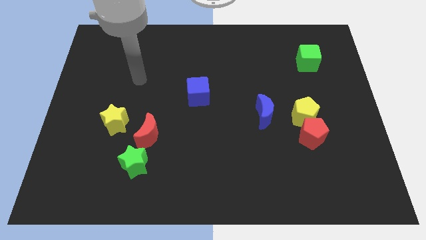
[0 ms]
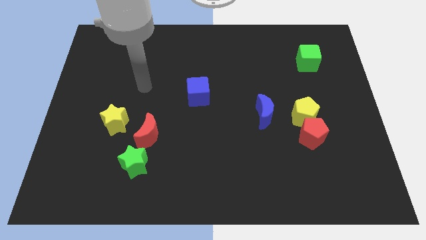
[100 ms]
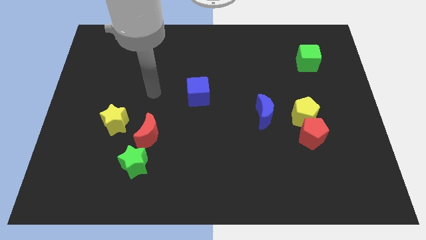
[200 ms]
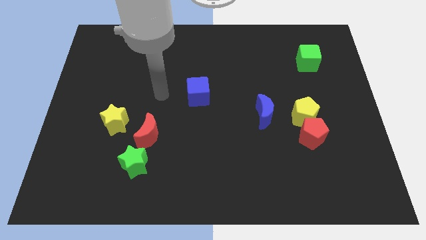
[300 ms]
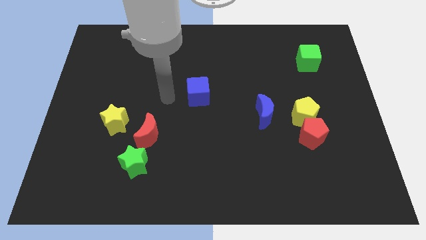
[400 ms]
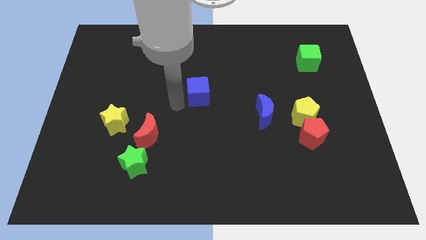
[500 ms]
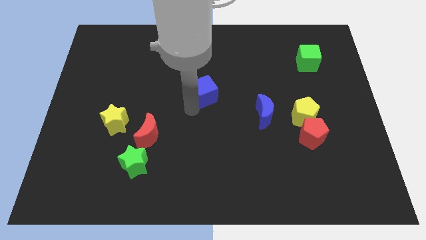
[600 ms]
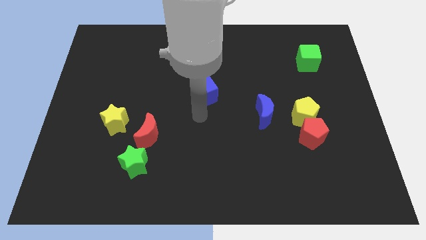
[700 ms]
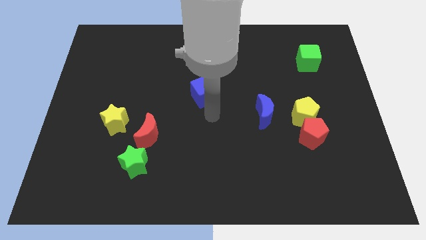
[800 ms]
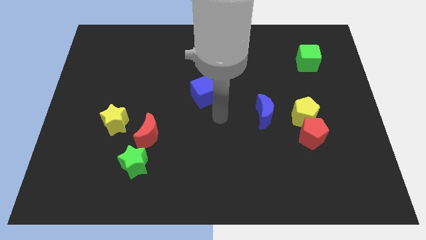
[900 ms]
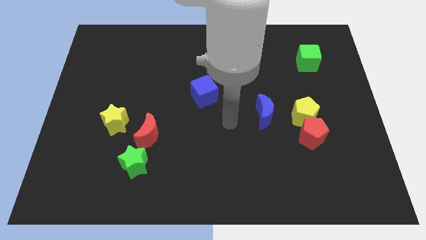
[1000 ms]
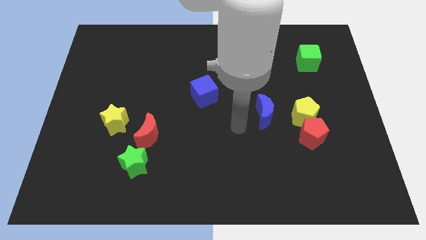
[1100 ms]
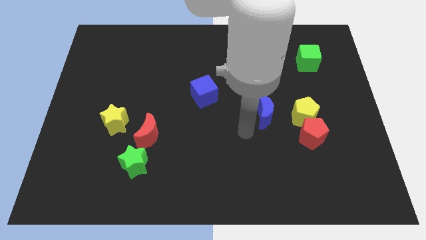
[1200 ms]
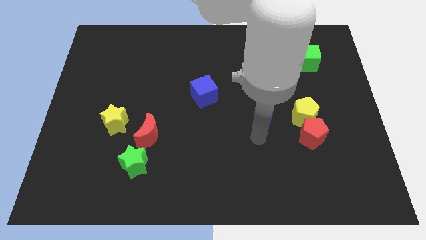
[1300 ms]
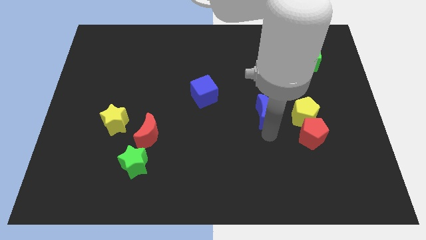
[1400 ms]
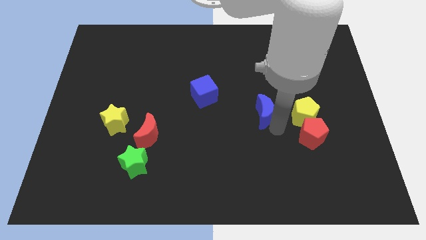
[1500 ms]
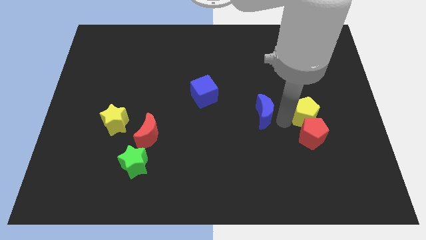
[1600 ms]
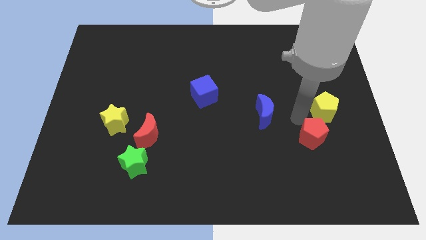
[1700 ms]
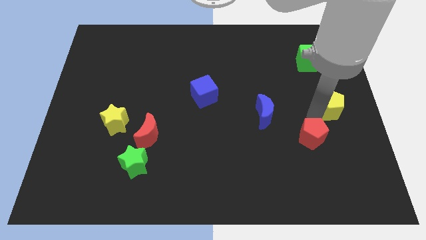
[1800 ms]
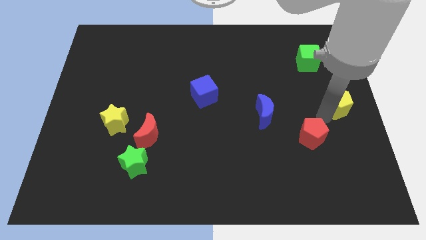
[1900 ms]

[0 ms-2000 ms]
move the red pentagon away from the yellow pentagon

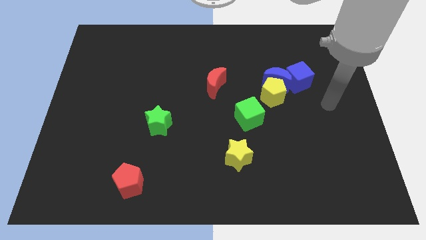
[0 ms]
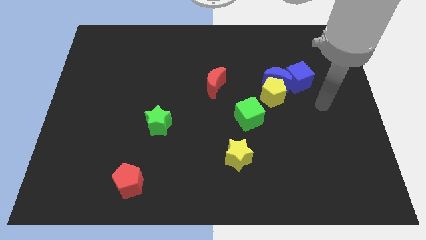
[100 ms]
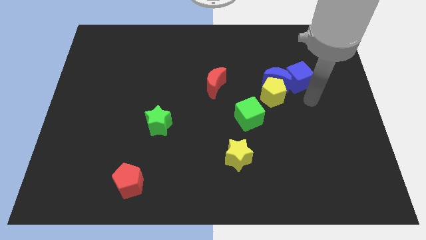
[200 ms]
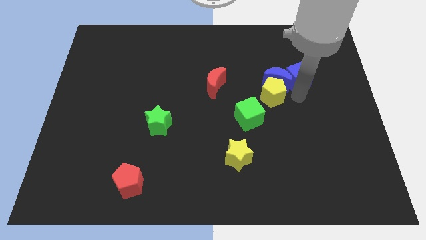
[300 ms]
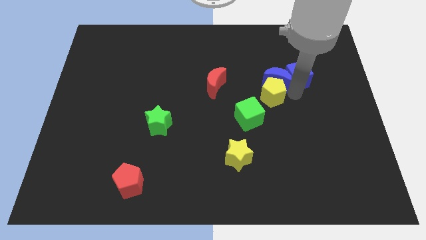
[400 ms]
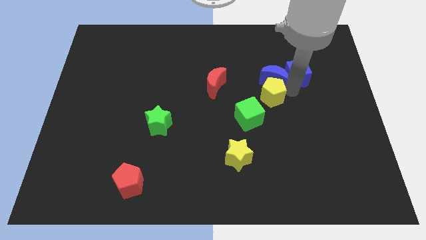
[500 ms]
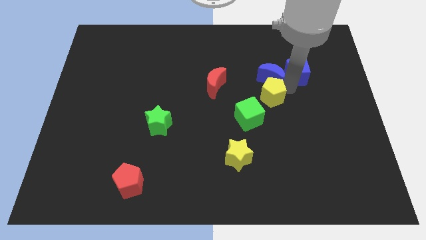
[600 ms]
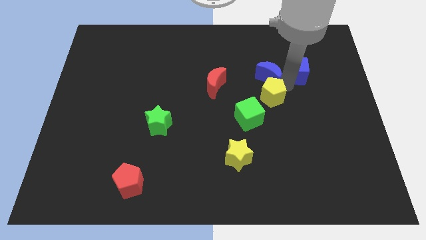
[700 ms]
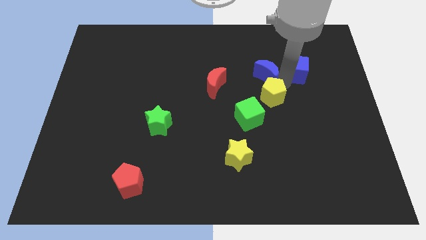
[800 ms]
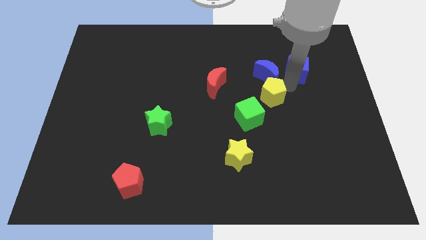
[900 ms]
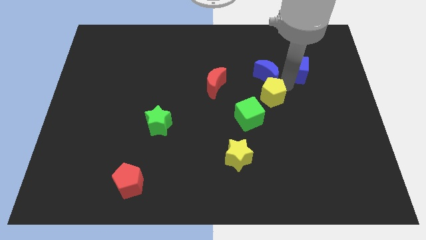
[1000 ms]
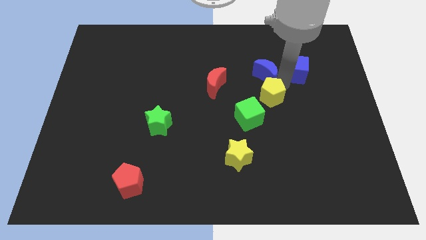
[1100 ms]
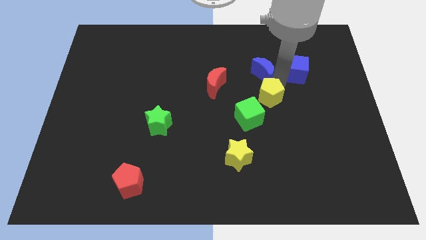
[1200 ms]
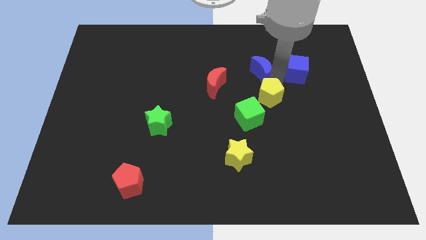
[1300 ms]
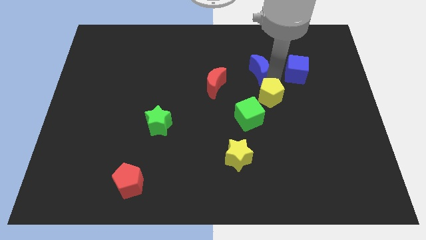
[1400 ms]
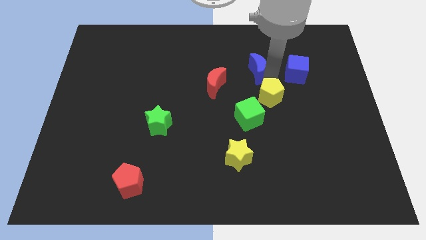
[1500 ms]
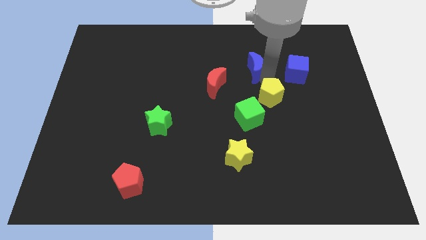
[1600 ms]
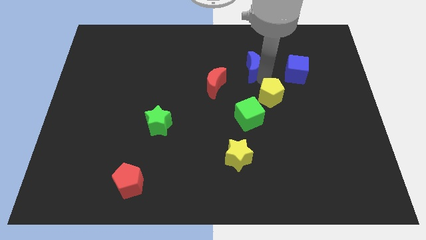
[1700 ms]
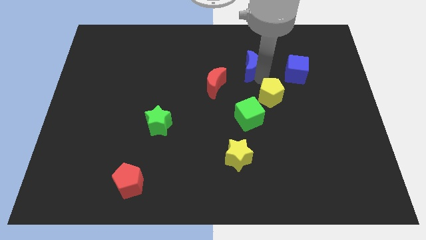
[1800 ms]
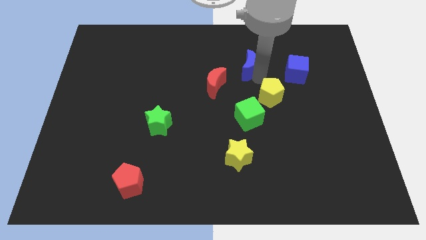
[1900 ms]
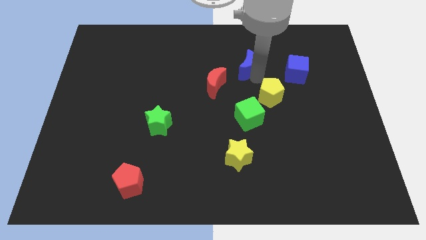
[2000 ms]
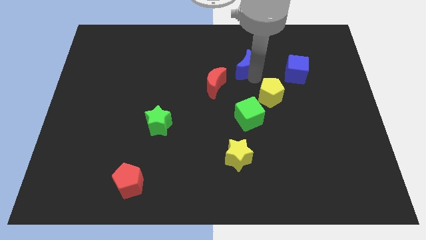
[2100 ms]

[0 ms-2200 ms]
separate the blue moon from the yellow pentagon and blue cube

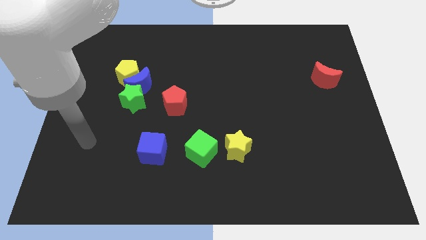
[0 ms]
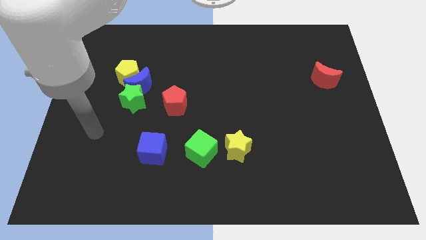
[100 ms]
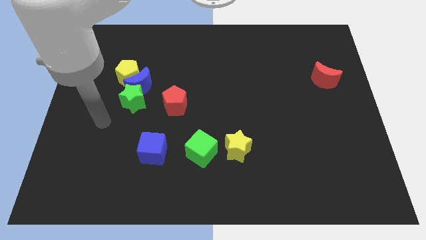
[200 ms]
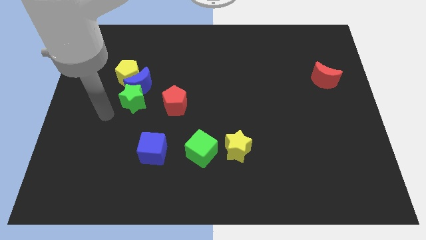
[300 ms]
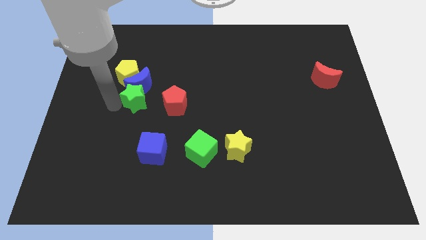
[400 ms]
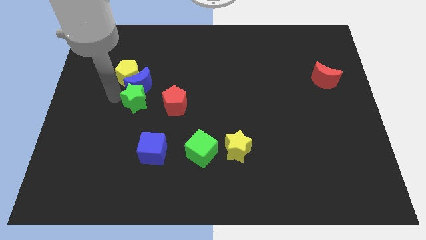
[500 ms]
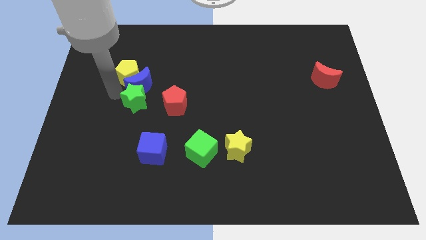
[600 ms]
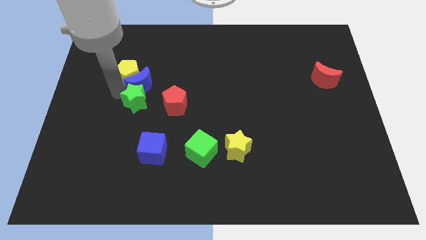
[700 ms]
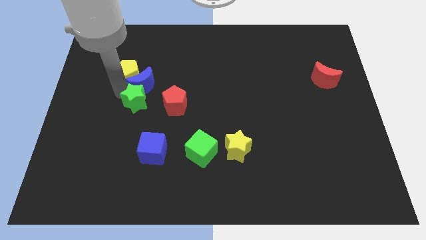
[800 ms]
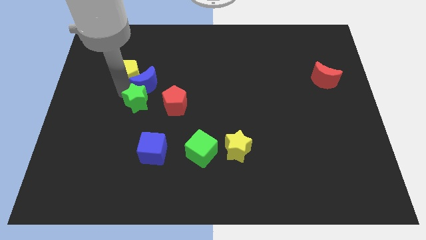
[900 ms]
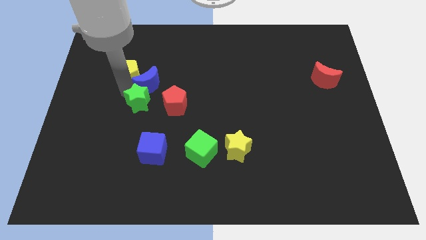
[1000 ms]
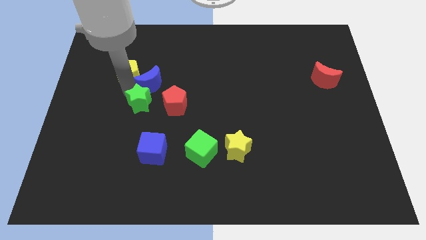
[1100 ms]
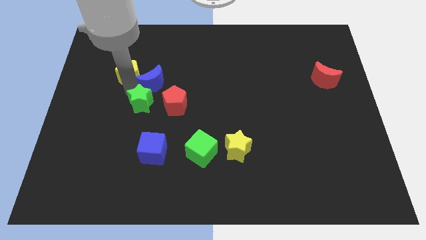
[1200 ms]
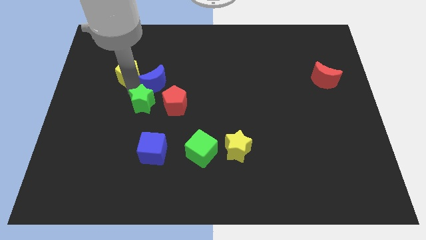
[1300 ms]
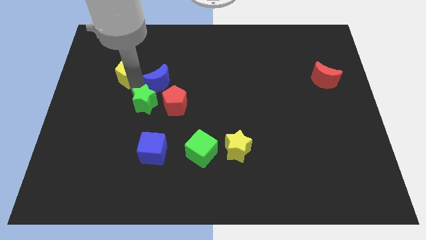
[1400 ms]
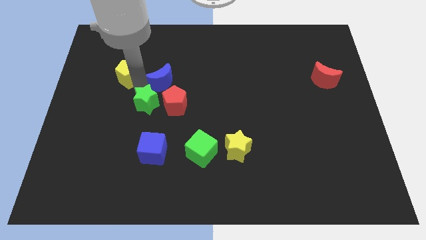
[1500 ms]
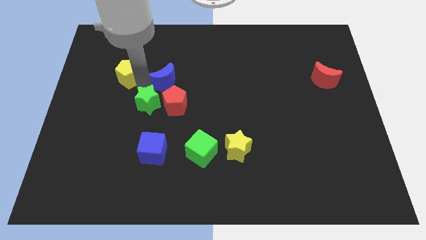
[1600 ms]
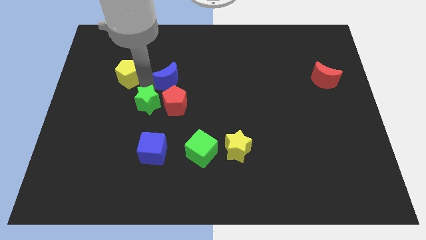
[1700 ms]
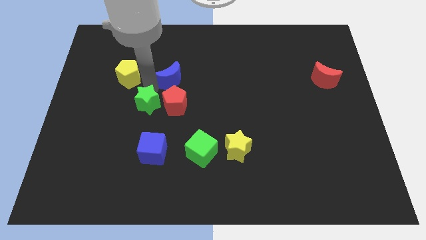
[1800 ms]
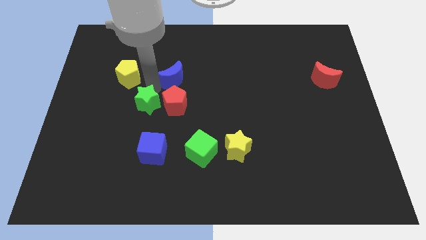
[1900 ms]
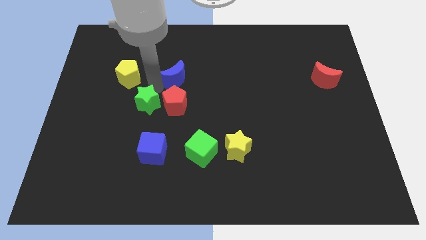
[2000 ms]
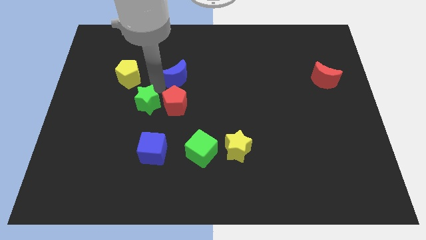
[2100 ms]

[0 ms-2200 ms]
pull the blue moon apart from the yellow pentagon and green star

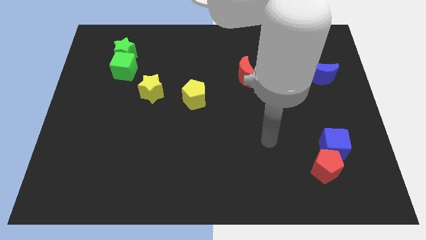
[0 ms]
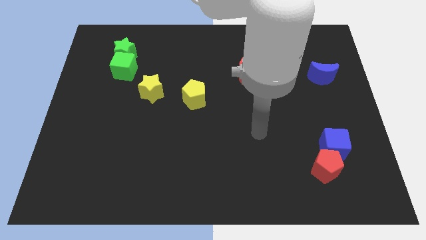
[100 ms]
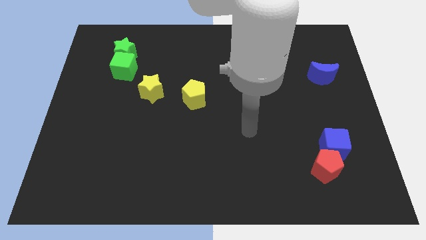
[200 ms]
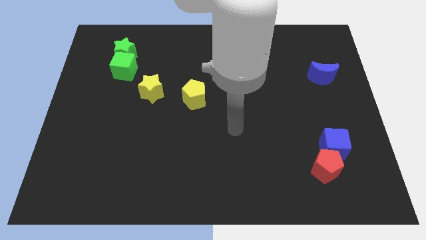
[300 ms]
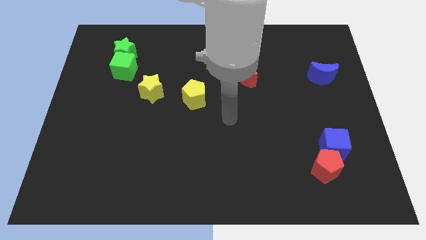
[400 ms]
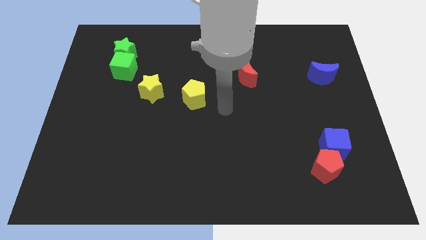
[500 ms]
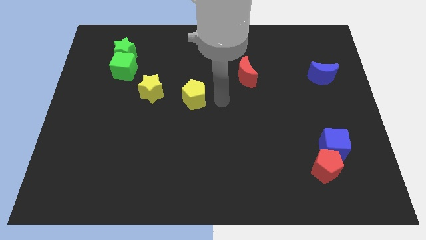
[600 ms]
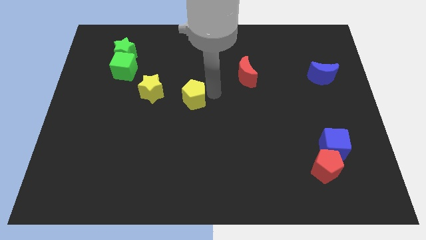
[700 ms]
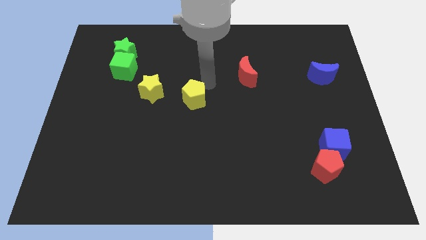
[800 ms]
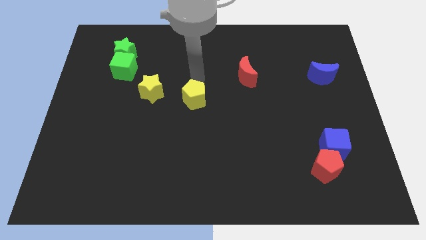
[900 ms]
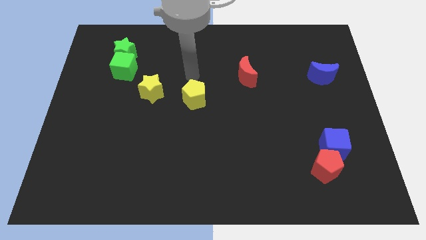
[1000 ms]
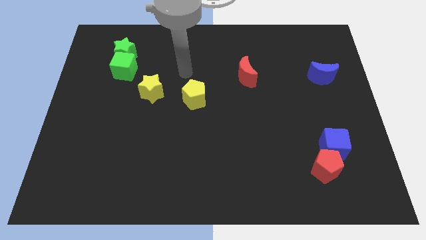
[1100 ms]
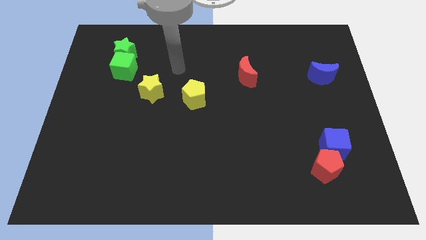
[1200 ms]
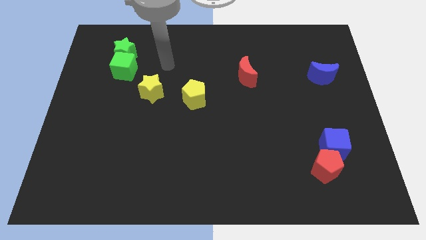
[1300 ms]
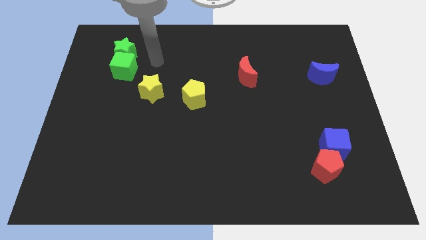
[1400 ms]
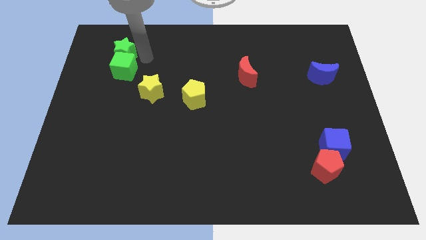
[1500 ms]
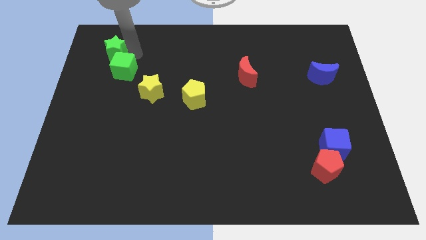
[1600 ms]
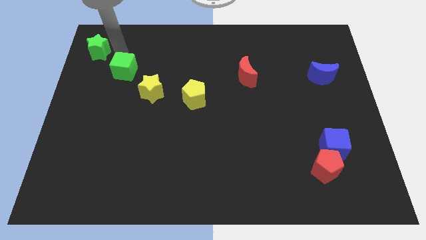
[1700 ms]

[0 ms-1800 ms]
separate the green cube from the green star

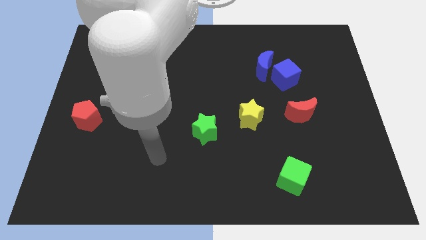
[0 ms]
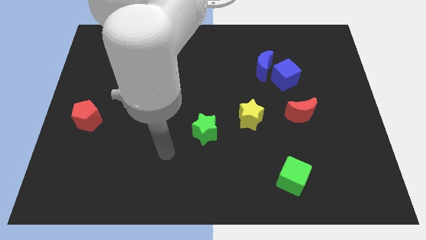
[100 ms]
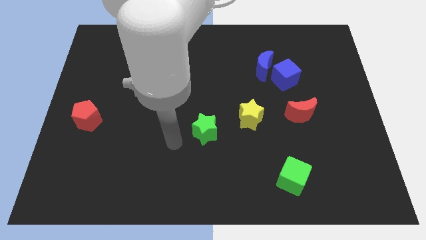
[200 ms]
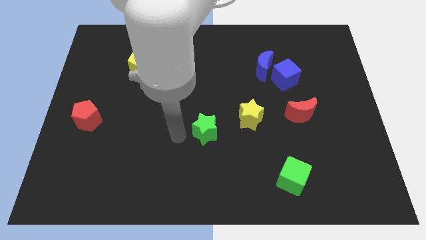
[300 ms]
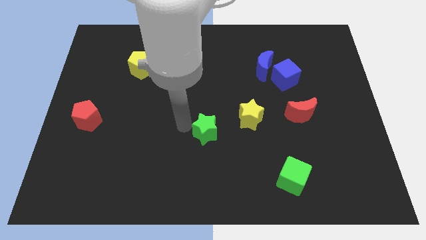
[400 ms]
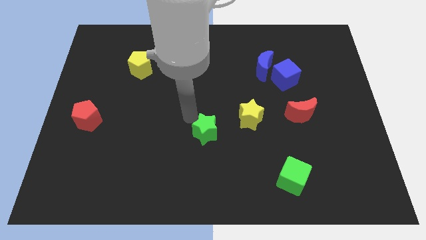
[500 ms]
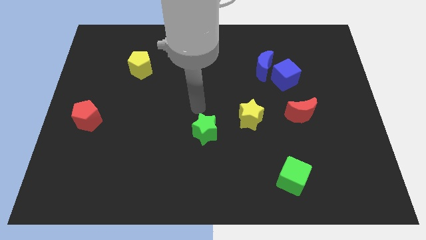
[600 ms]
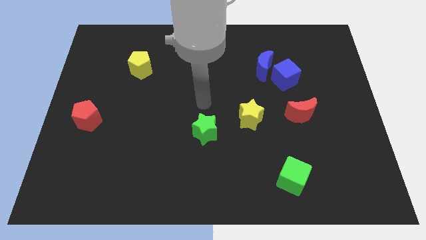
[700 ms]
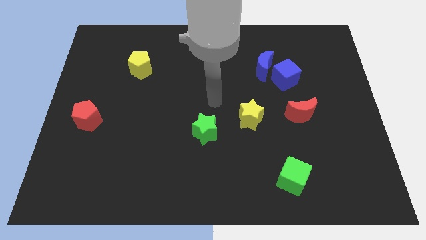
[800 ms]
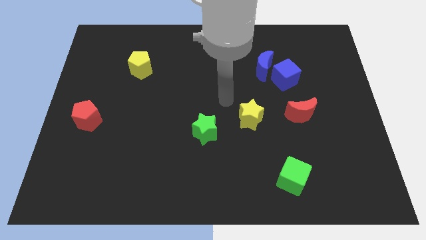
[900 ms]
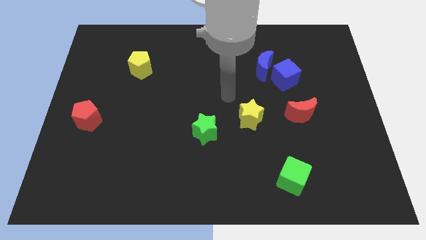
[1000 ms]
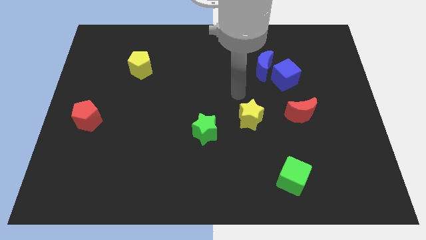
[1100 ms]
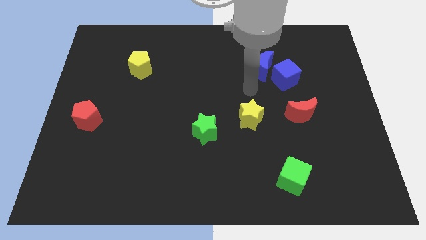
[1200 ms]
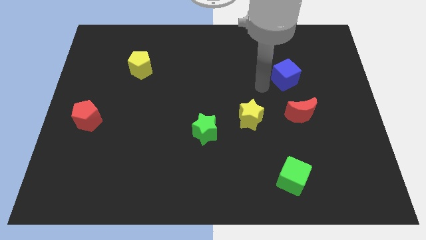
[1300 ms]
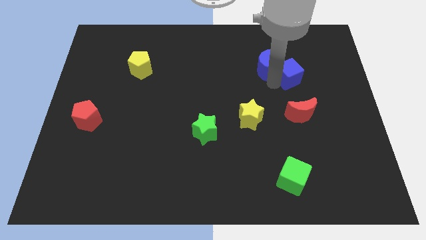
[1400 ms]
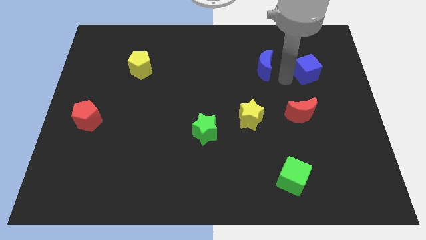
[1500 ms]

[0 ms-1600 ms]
separate the blue moon from the blue cube
